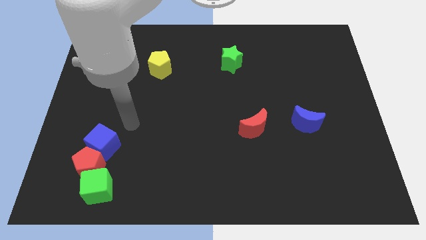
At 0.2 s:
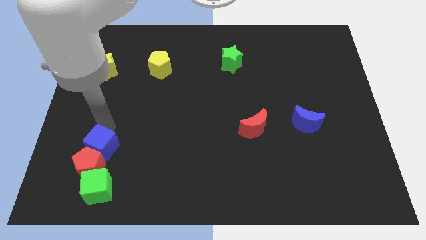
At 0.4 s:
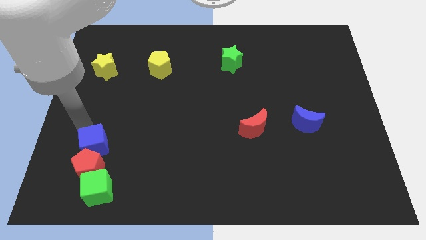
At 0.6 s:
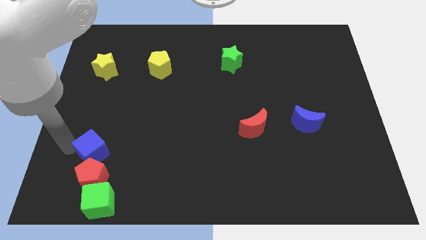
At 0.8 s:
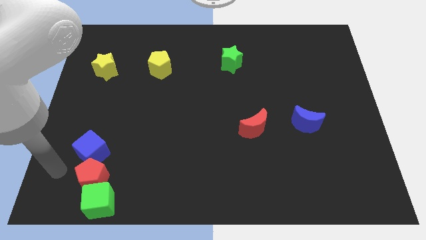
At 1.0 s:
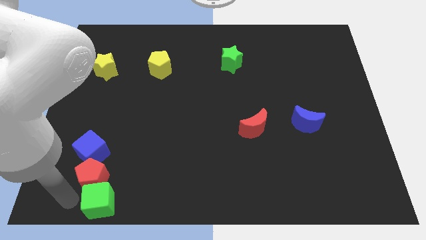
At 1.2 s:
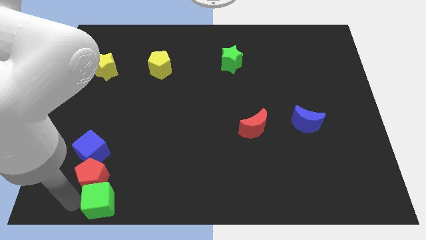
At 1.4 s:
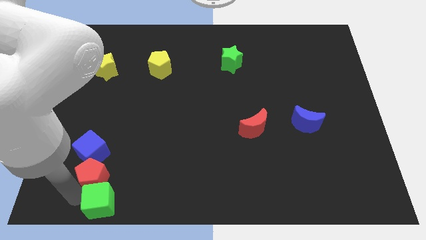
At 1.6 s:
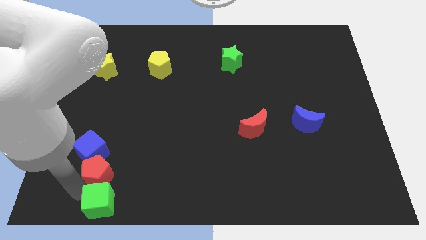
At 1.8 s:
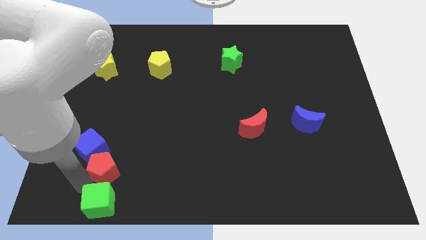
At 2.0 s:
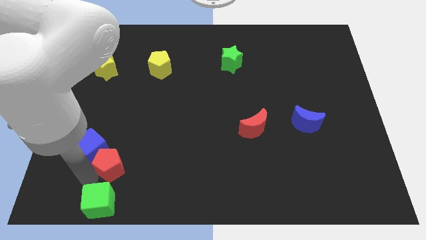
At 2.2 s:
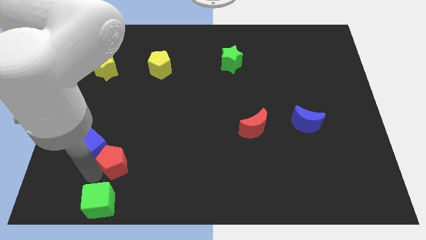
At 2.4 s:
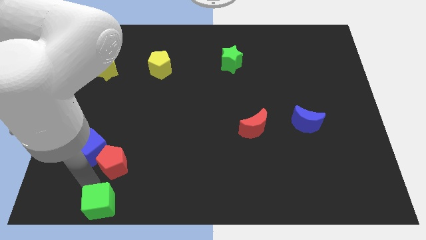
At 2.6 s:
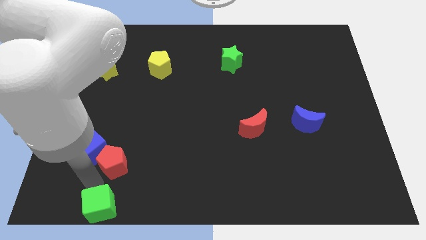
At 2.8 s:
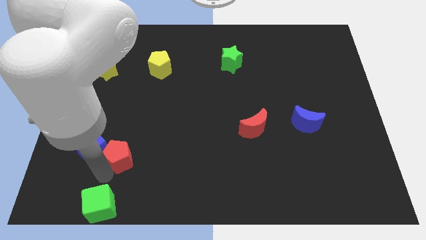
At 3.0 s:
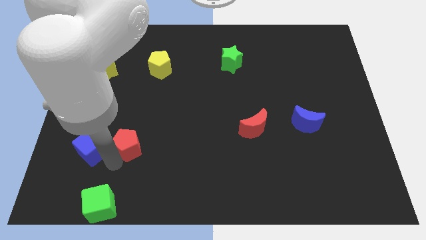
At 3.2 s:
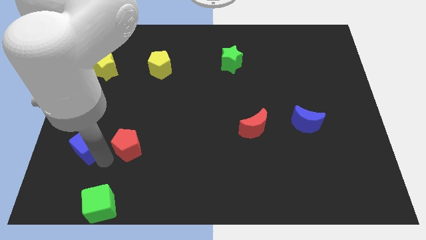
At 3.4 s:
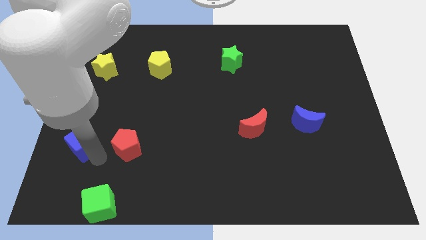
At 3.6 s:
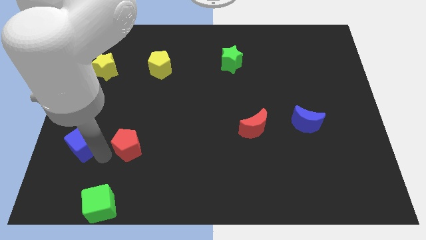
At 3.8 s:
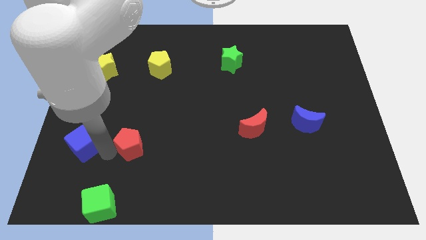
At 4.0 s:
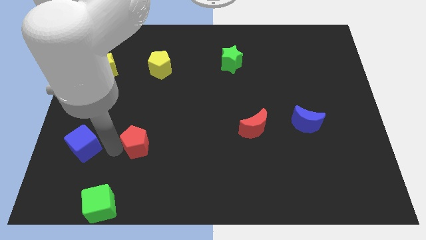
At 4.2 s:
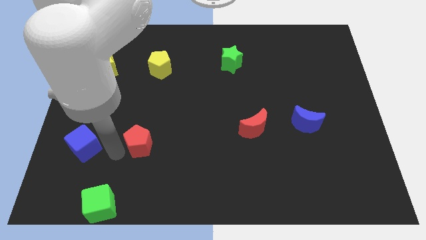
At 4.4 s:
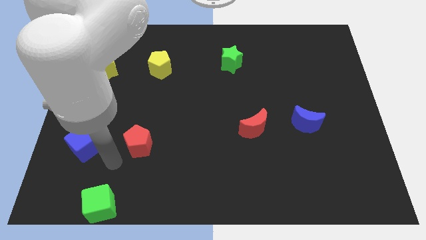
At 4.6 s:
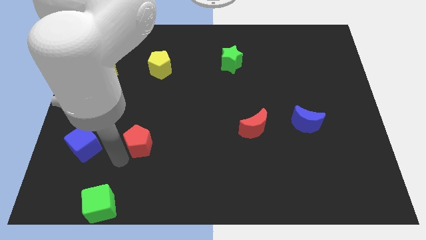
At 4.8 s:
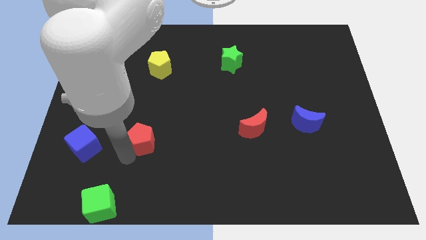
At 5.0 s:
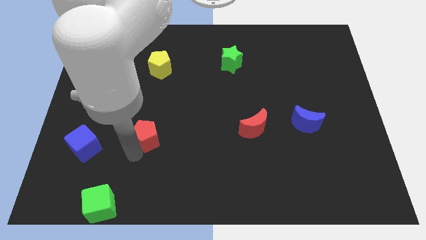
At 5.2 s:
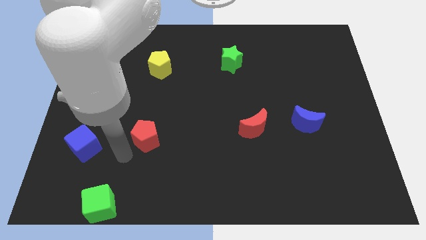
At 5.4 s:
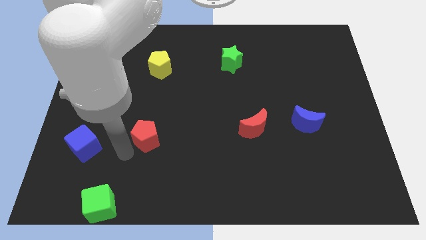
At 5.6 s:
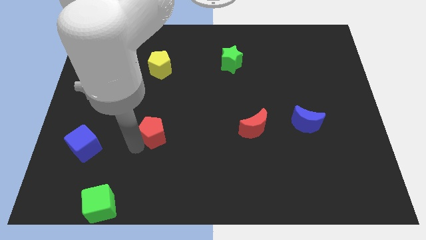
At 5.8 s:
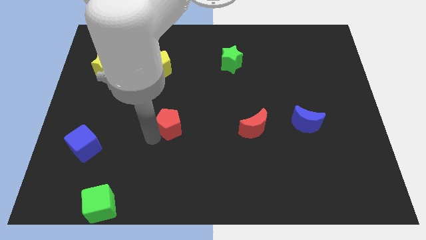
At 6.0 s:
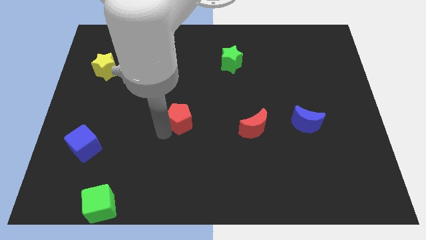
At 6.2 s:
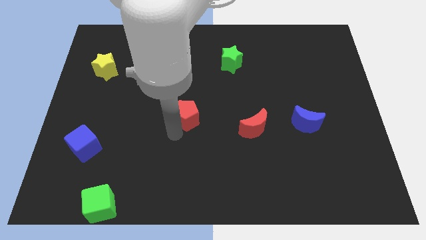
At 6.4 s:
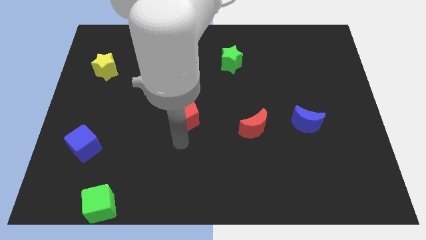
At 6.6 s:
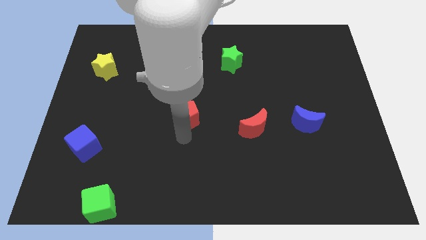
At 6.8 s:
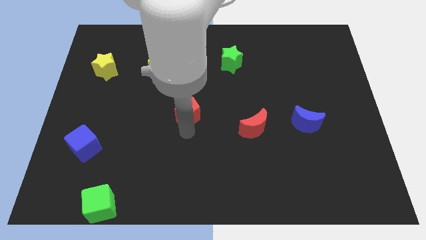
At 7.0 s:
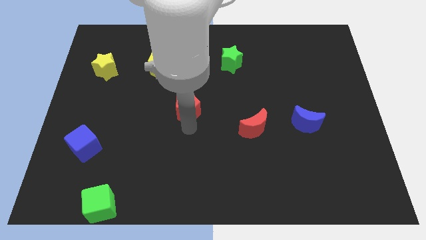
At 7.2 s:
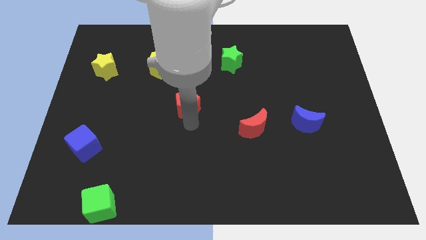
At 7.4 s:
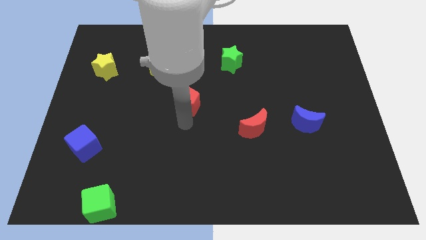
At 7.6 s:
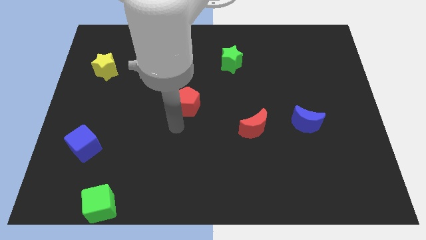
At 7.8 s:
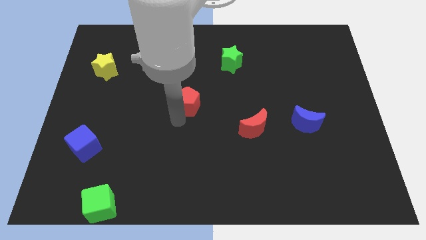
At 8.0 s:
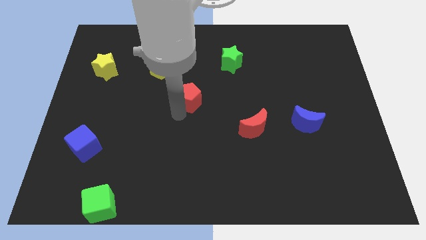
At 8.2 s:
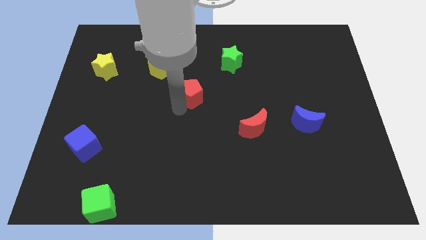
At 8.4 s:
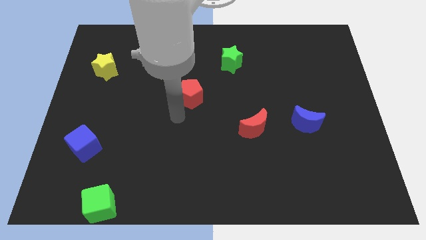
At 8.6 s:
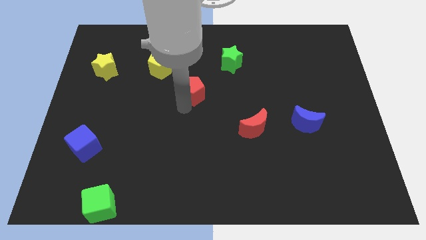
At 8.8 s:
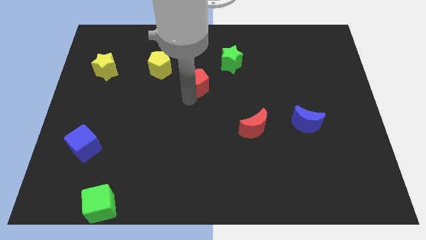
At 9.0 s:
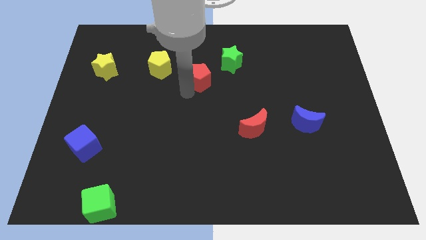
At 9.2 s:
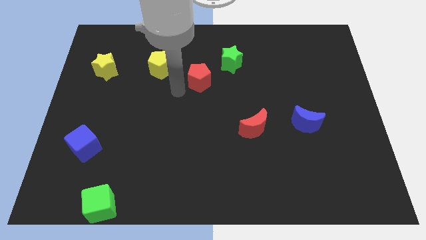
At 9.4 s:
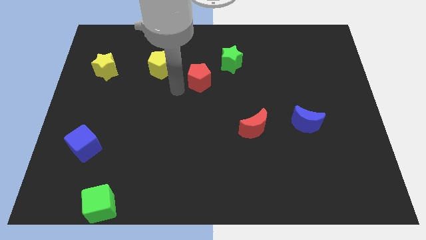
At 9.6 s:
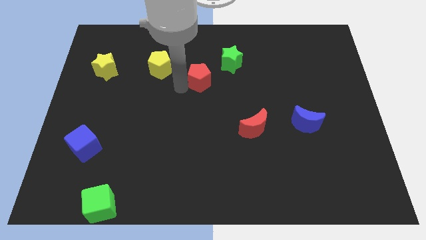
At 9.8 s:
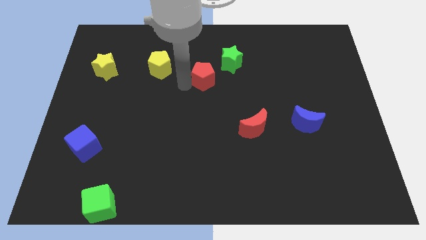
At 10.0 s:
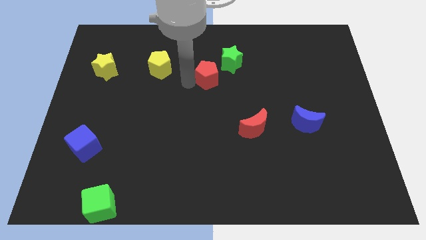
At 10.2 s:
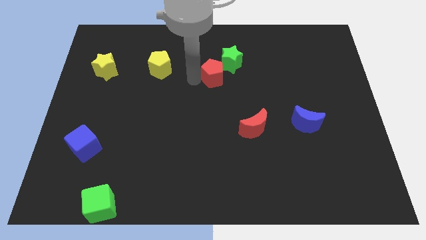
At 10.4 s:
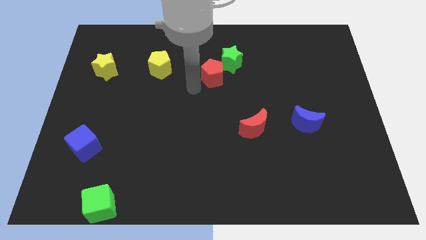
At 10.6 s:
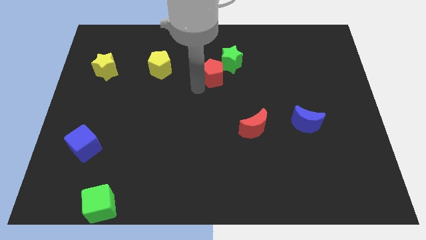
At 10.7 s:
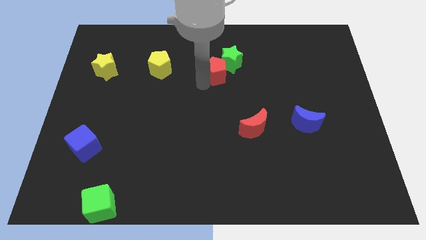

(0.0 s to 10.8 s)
move the red pentagon next to the green star

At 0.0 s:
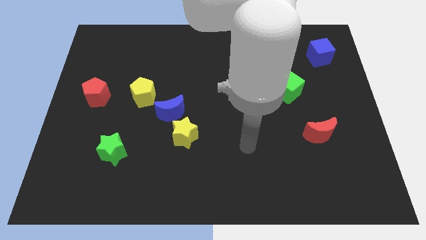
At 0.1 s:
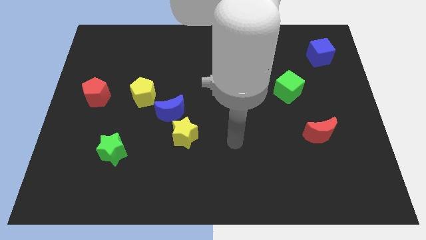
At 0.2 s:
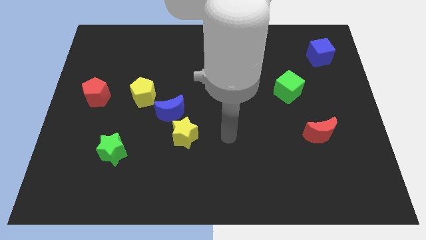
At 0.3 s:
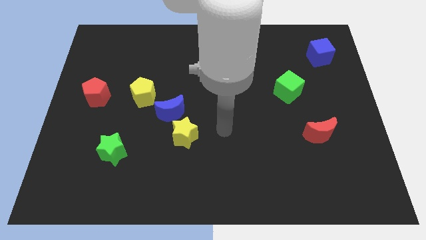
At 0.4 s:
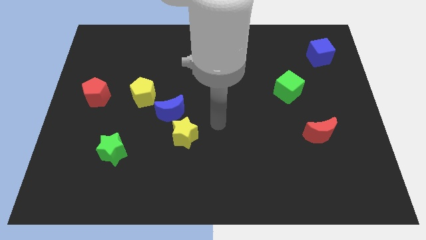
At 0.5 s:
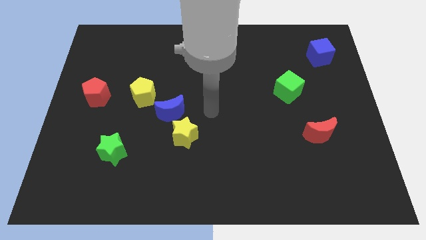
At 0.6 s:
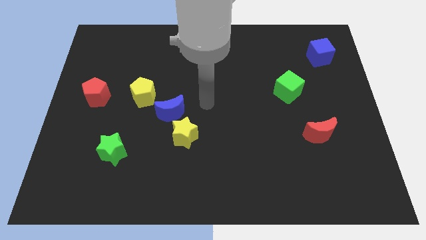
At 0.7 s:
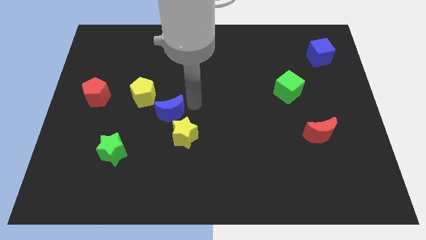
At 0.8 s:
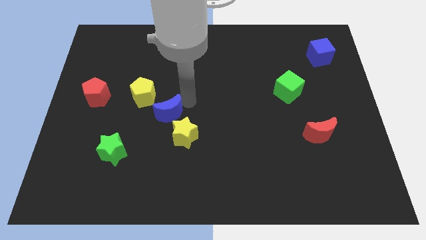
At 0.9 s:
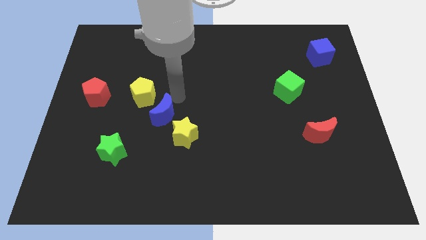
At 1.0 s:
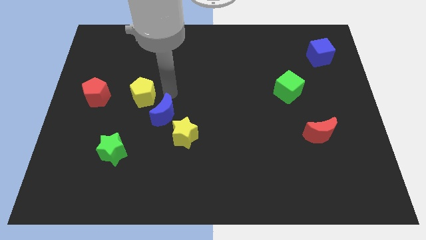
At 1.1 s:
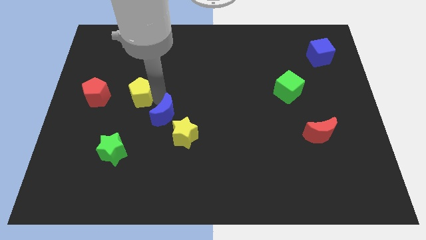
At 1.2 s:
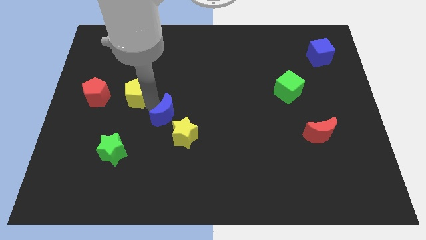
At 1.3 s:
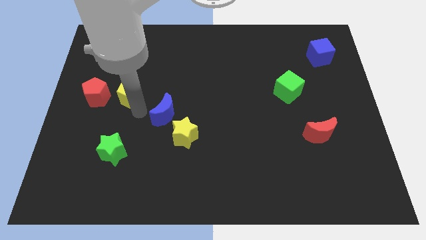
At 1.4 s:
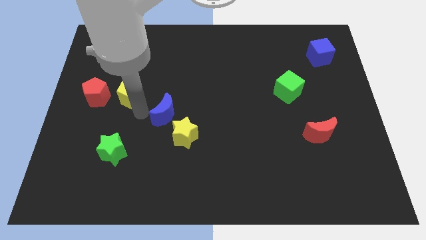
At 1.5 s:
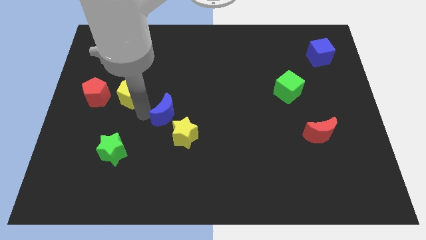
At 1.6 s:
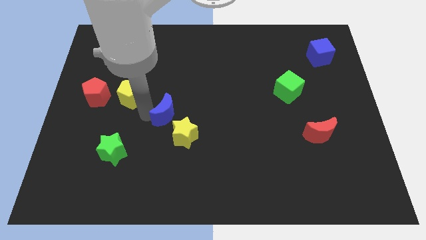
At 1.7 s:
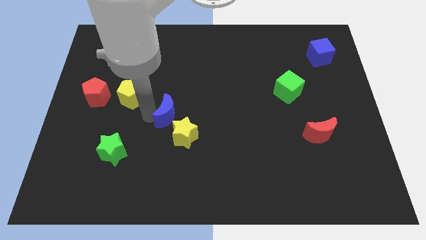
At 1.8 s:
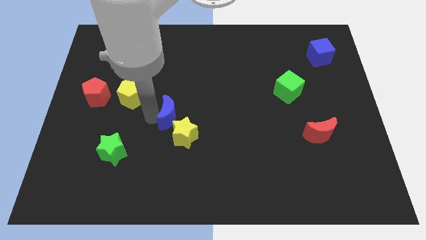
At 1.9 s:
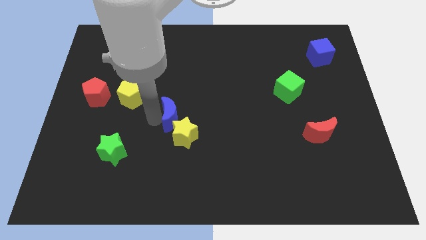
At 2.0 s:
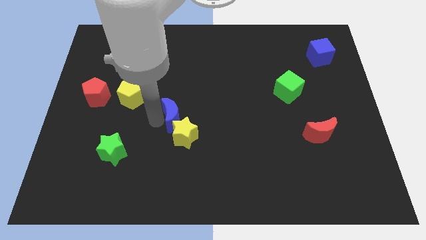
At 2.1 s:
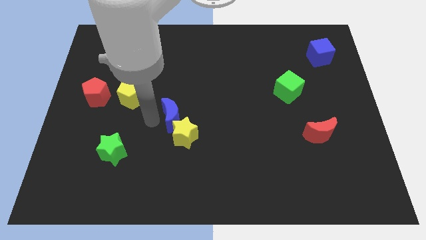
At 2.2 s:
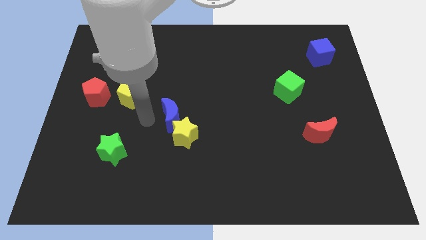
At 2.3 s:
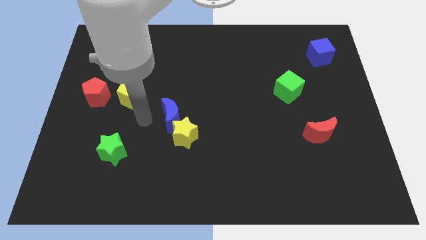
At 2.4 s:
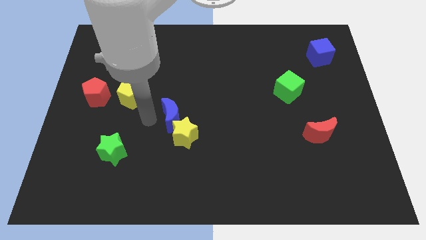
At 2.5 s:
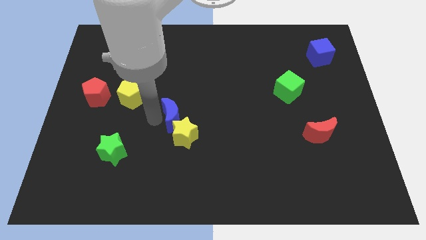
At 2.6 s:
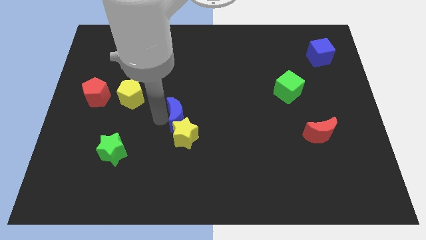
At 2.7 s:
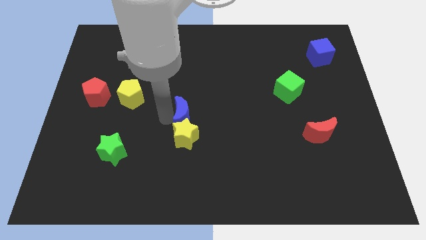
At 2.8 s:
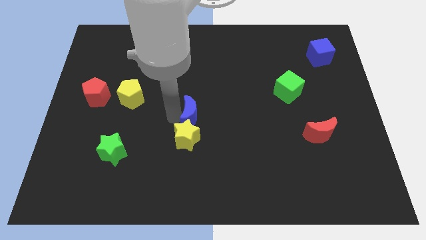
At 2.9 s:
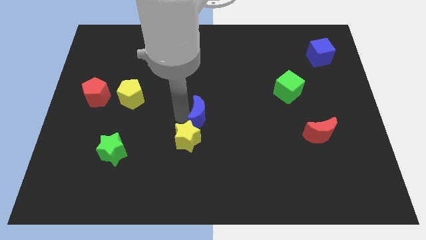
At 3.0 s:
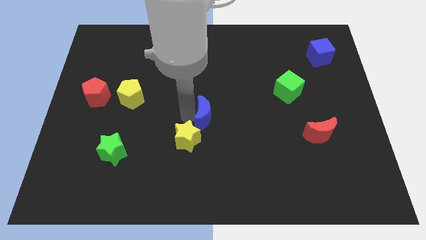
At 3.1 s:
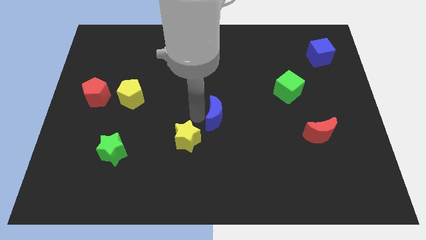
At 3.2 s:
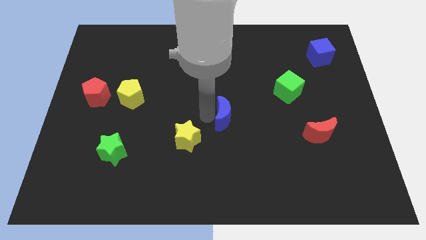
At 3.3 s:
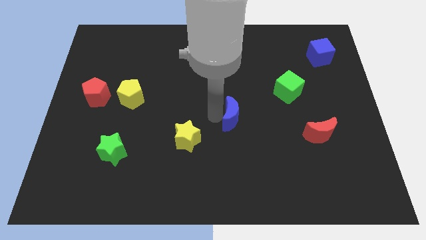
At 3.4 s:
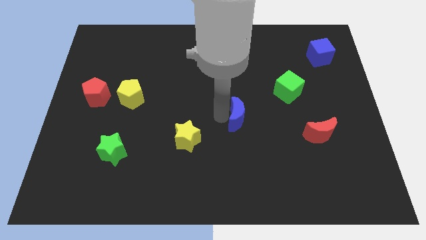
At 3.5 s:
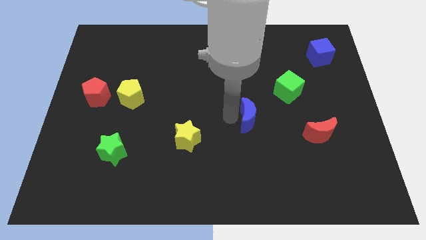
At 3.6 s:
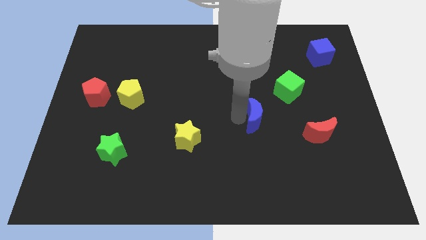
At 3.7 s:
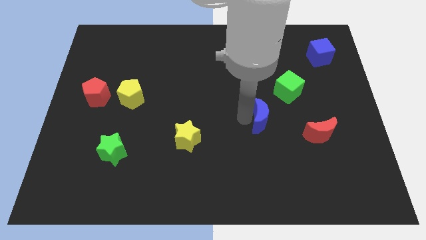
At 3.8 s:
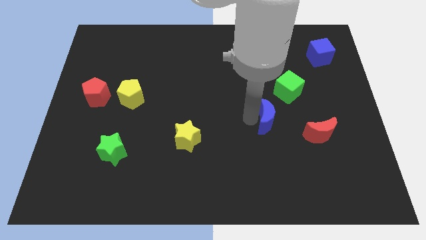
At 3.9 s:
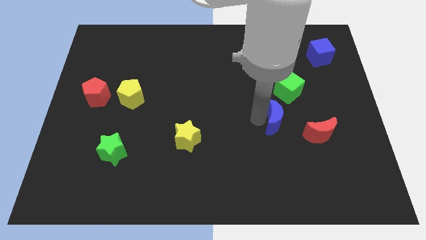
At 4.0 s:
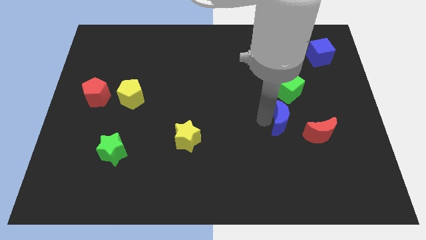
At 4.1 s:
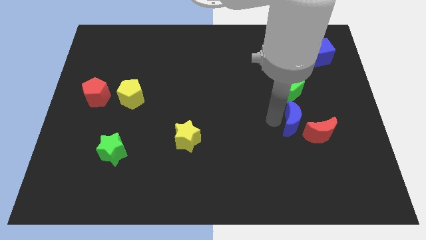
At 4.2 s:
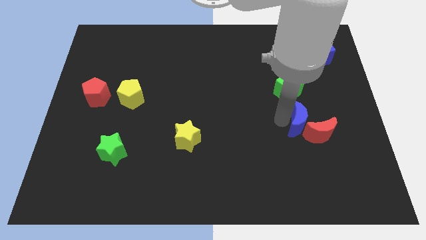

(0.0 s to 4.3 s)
put the blue moon close to the red moon
